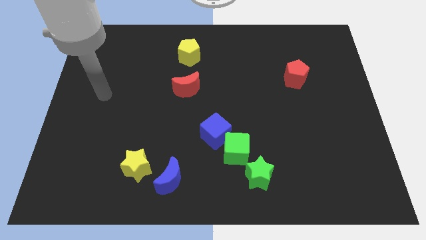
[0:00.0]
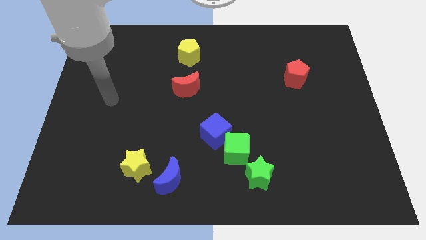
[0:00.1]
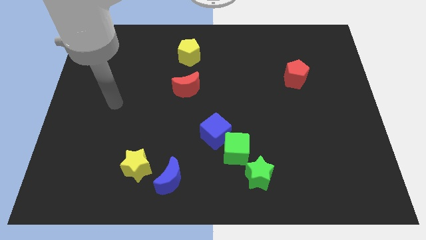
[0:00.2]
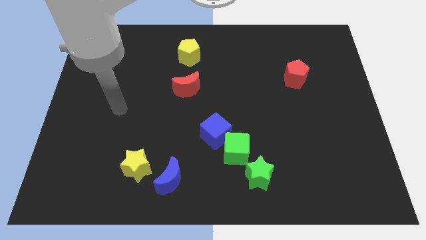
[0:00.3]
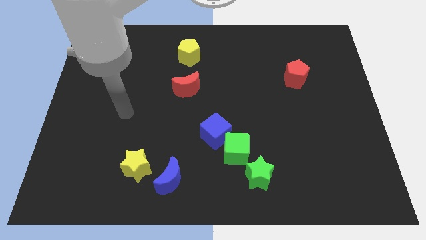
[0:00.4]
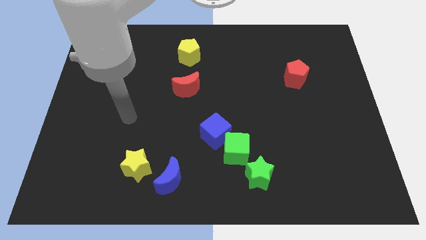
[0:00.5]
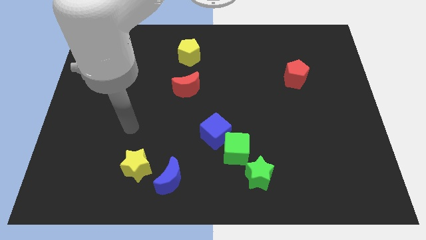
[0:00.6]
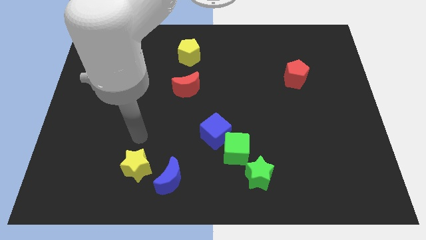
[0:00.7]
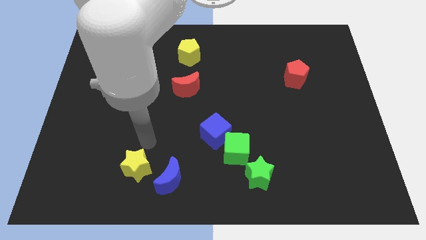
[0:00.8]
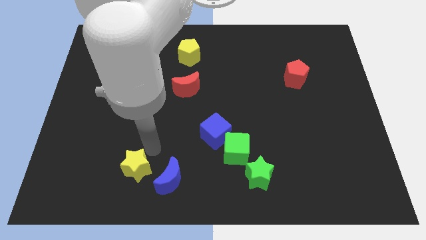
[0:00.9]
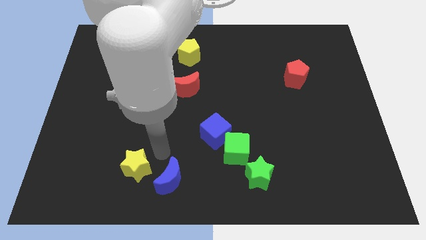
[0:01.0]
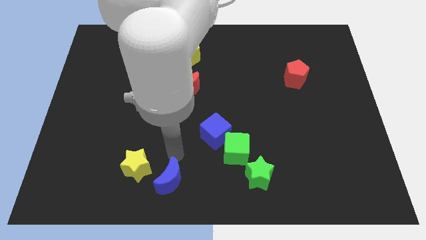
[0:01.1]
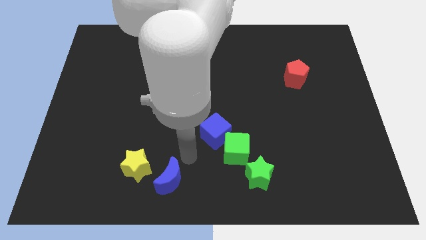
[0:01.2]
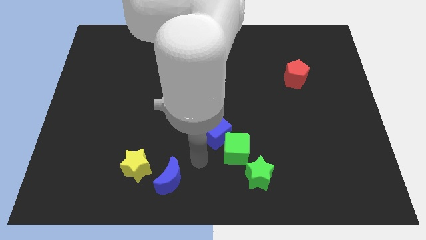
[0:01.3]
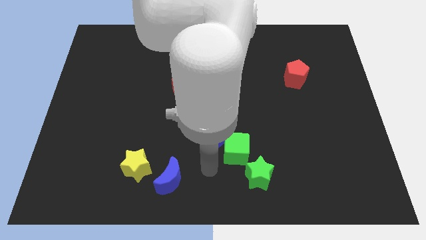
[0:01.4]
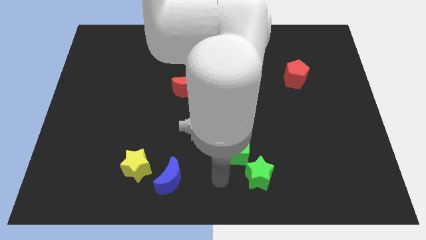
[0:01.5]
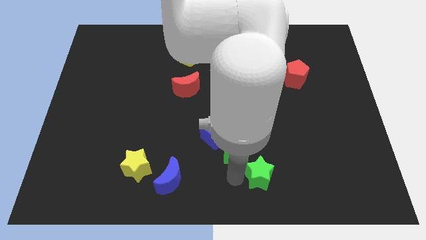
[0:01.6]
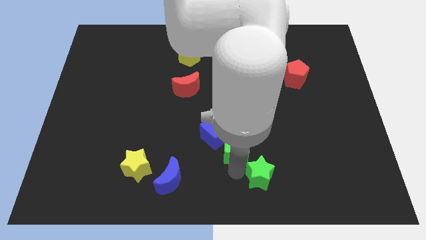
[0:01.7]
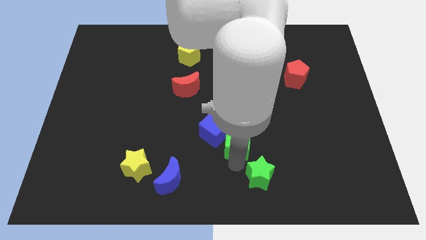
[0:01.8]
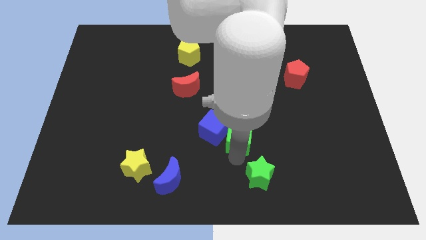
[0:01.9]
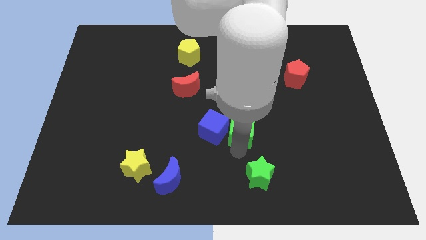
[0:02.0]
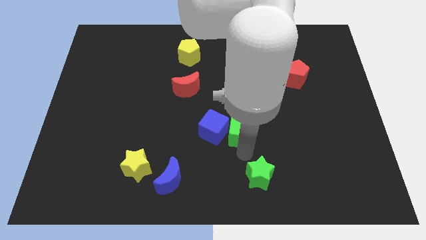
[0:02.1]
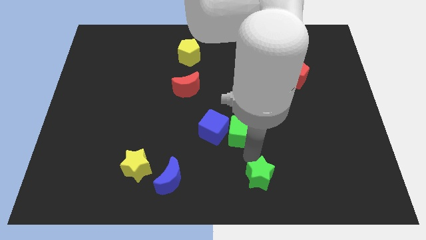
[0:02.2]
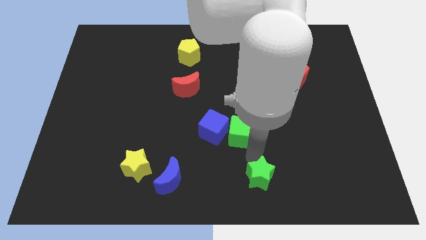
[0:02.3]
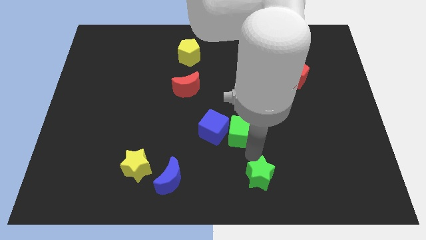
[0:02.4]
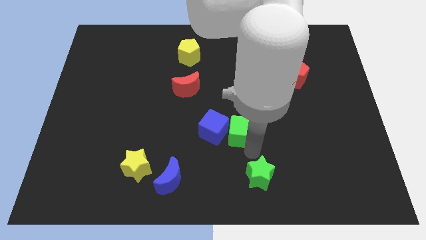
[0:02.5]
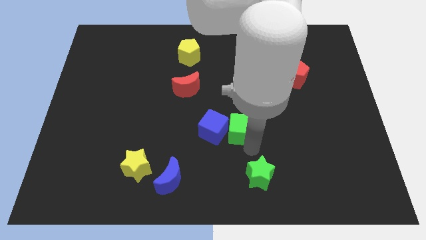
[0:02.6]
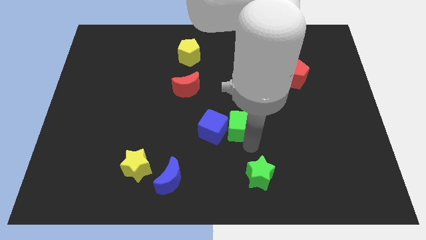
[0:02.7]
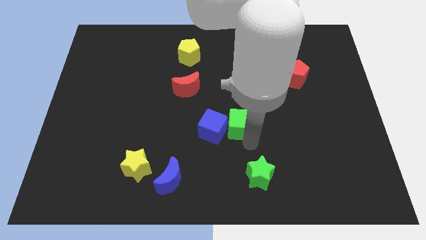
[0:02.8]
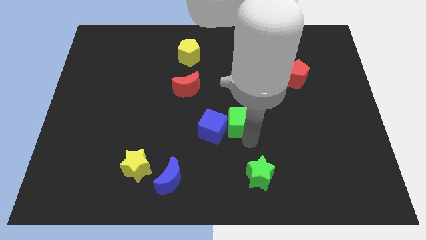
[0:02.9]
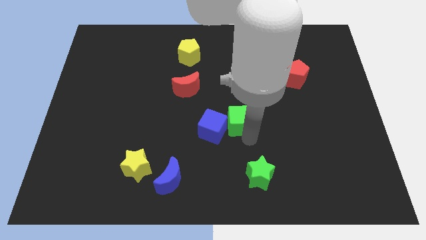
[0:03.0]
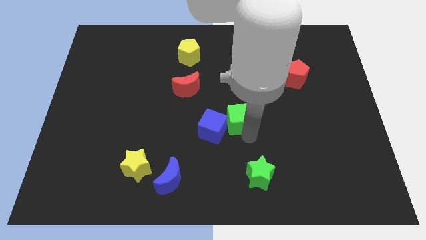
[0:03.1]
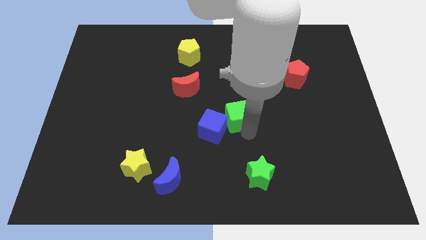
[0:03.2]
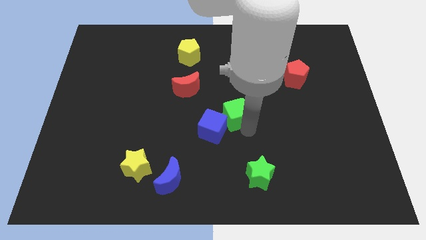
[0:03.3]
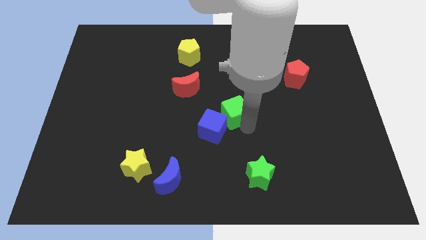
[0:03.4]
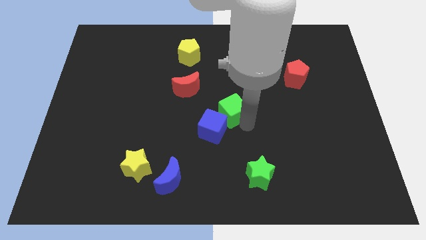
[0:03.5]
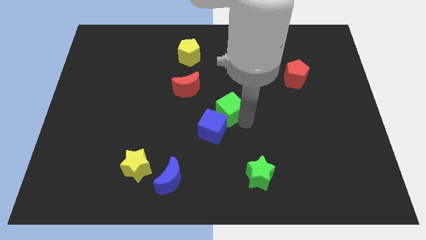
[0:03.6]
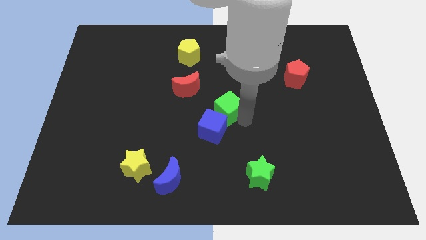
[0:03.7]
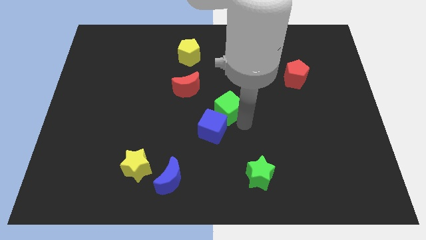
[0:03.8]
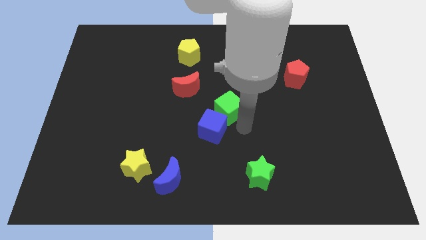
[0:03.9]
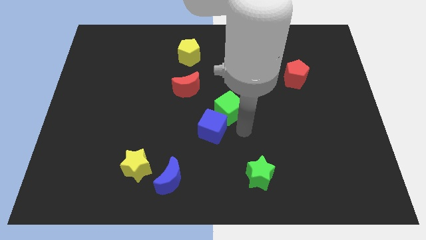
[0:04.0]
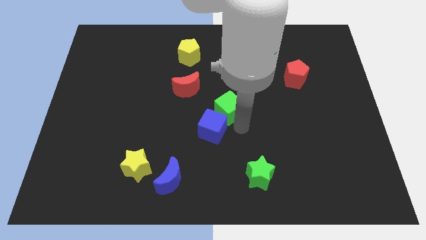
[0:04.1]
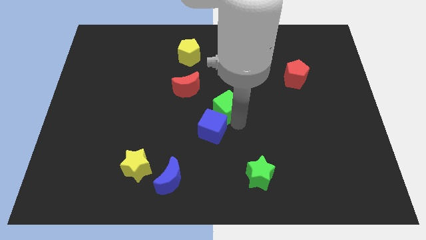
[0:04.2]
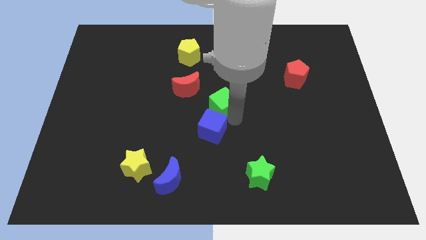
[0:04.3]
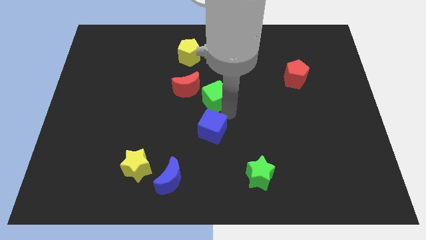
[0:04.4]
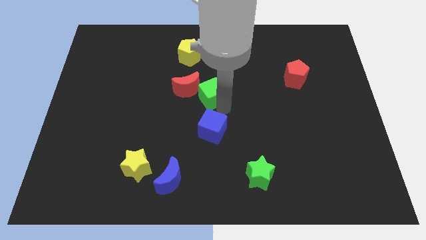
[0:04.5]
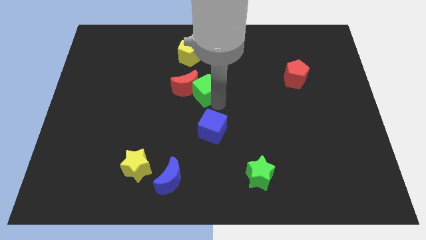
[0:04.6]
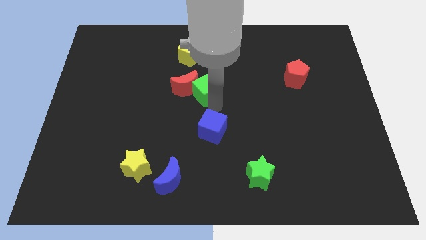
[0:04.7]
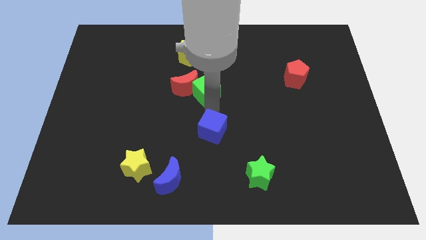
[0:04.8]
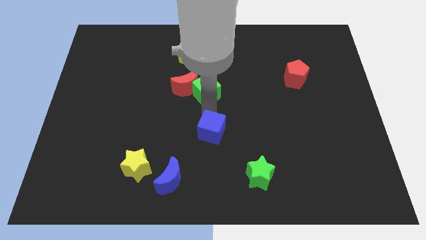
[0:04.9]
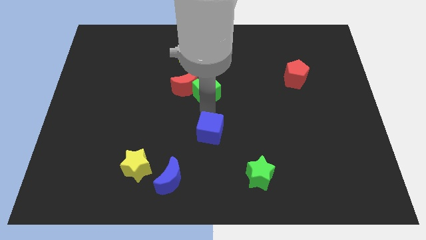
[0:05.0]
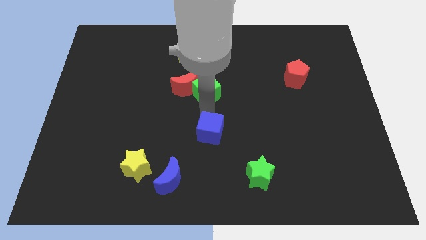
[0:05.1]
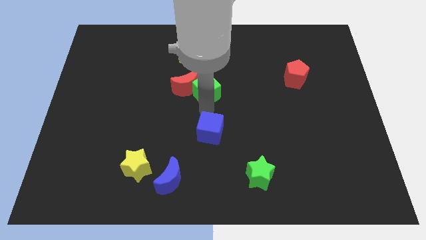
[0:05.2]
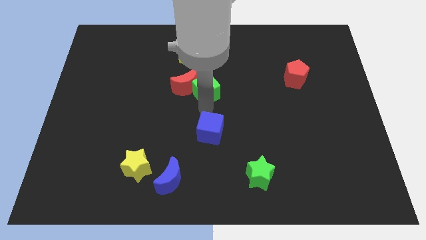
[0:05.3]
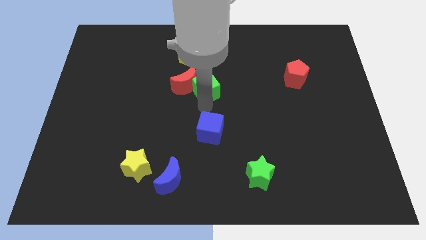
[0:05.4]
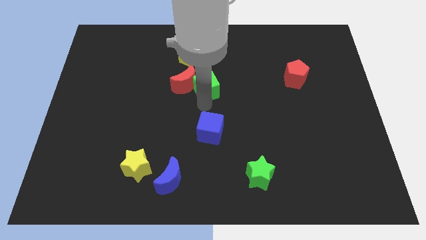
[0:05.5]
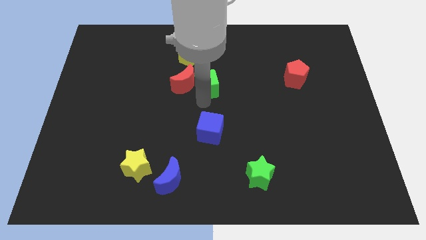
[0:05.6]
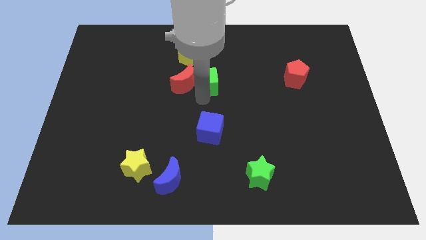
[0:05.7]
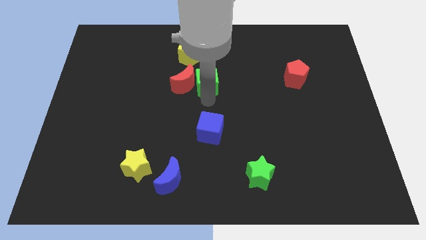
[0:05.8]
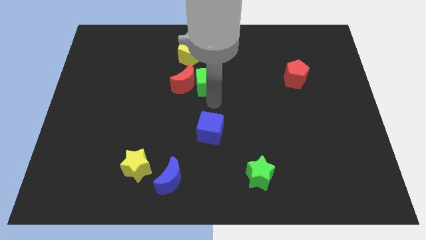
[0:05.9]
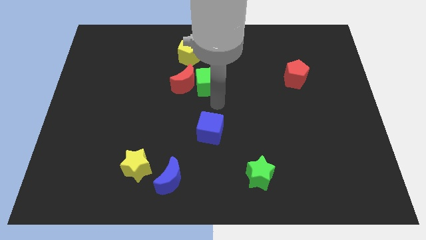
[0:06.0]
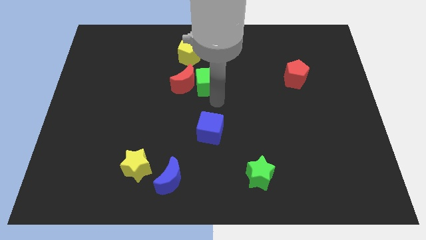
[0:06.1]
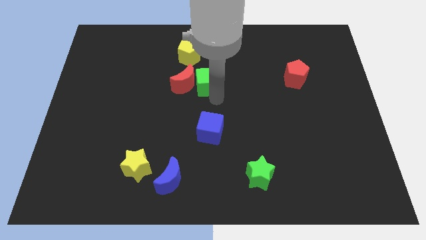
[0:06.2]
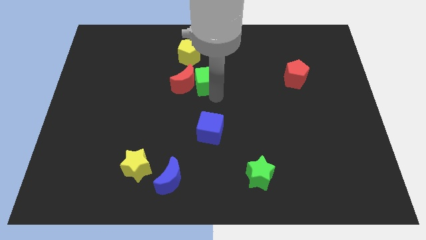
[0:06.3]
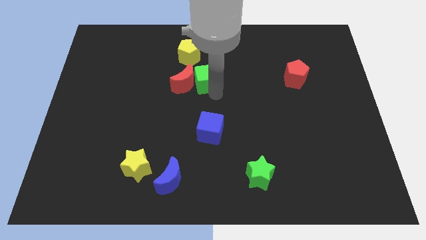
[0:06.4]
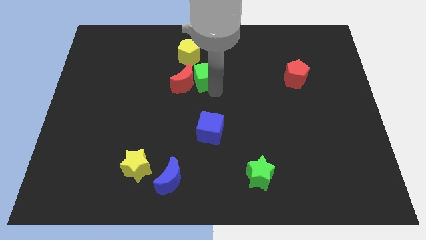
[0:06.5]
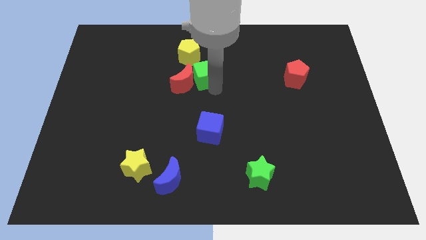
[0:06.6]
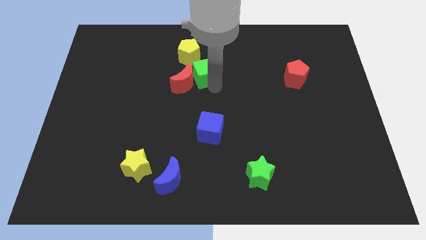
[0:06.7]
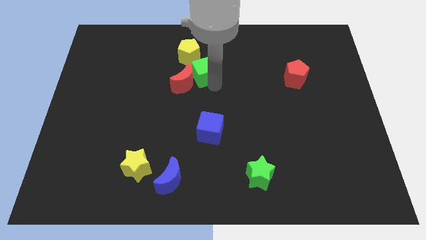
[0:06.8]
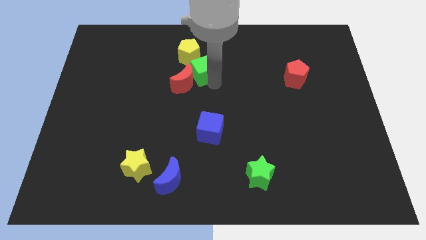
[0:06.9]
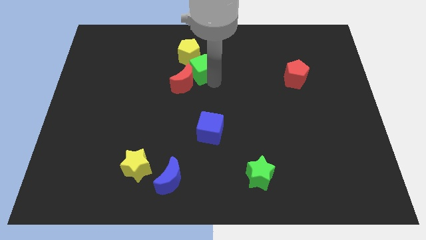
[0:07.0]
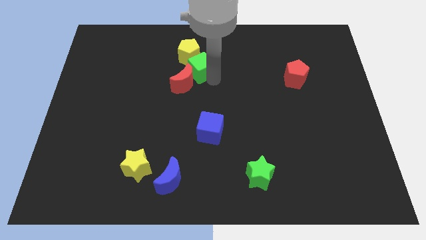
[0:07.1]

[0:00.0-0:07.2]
slide the green cube to the yellow pentagon
